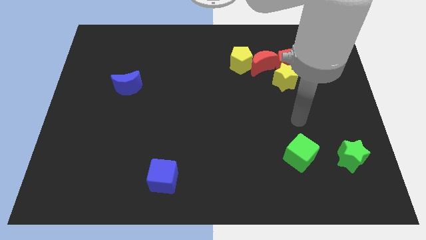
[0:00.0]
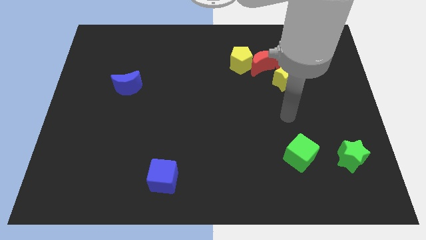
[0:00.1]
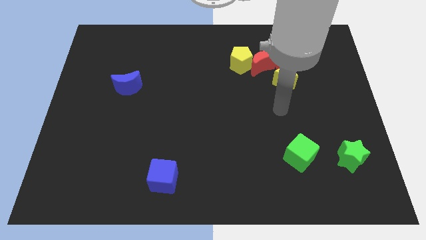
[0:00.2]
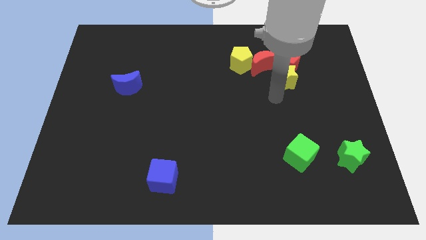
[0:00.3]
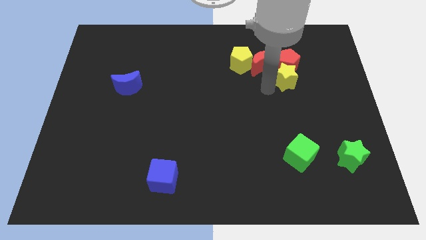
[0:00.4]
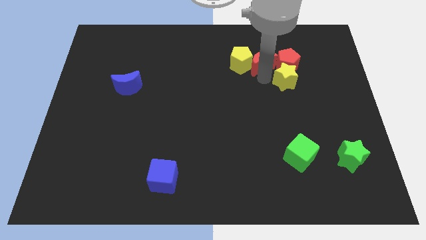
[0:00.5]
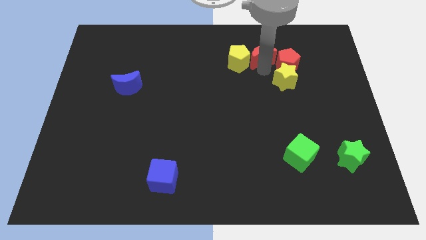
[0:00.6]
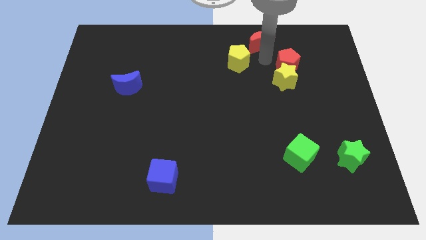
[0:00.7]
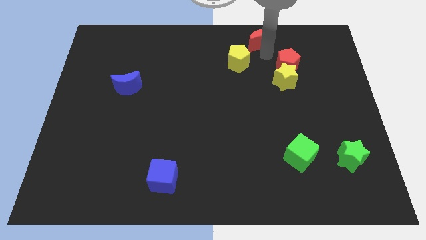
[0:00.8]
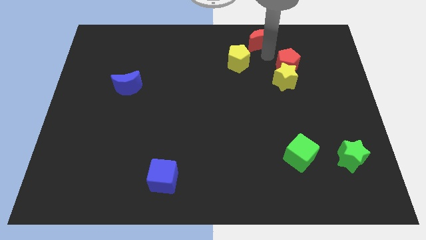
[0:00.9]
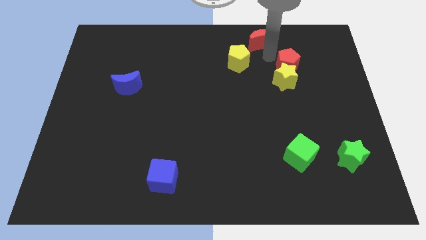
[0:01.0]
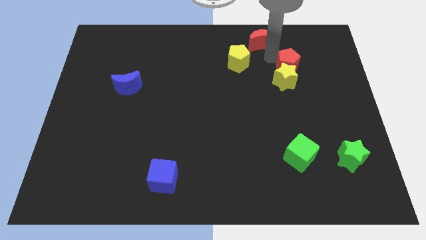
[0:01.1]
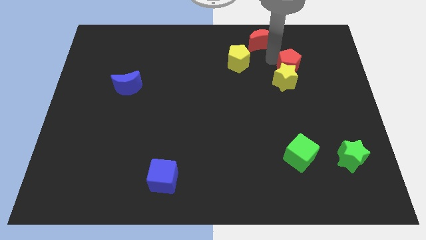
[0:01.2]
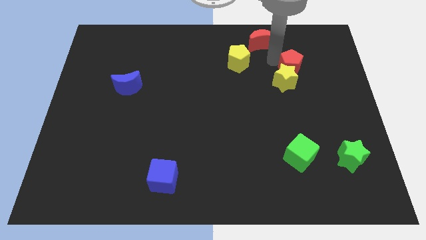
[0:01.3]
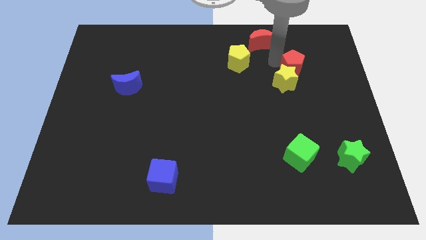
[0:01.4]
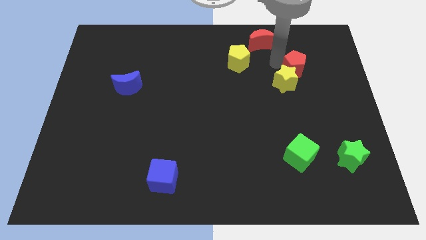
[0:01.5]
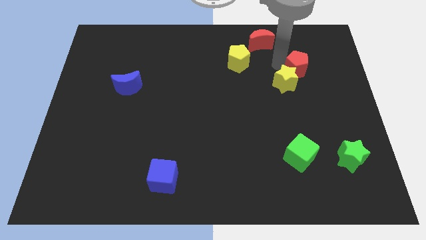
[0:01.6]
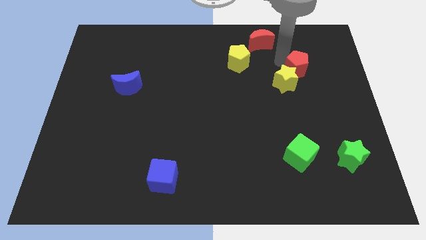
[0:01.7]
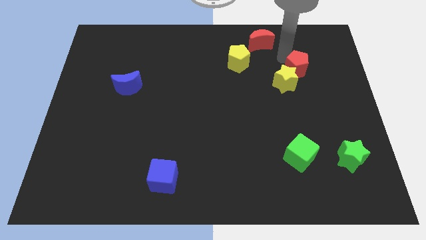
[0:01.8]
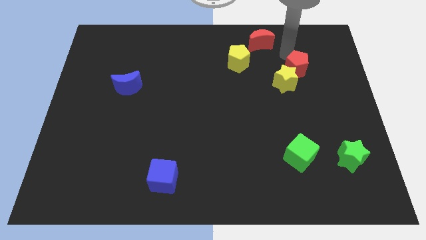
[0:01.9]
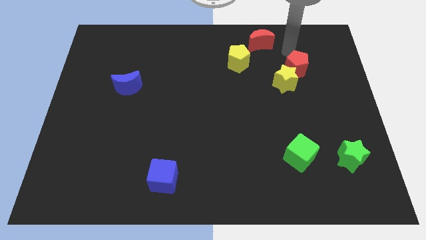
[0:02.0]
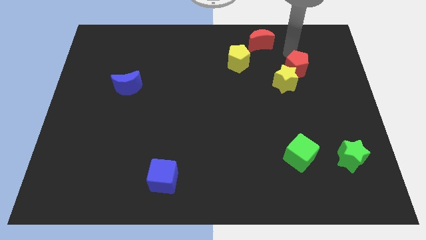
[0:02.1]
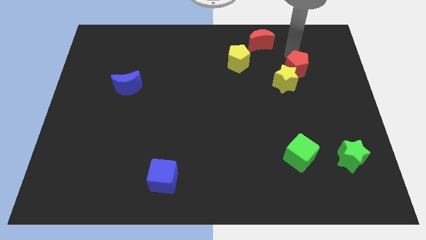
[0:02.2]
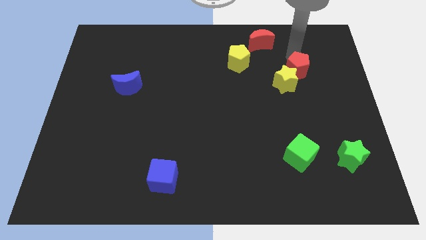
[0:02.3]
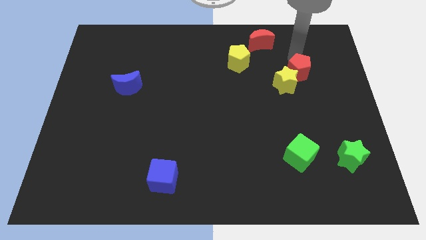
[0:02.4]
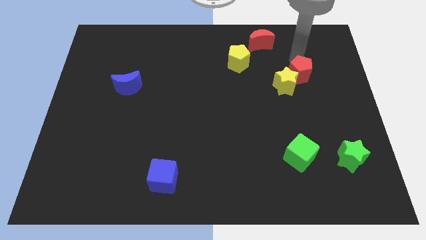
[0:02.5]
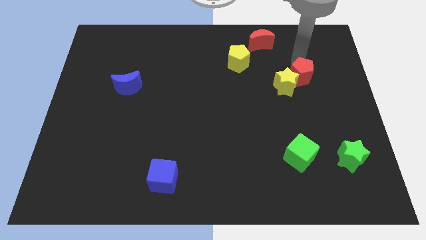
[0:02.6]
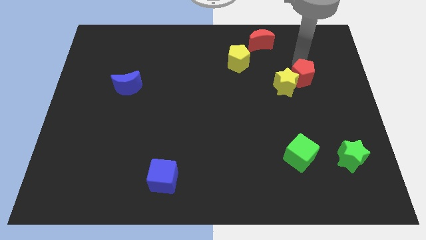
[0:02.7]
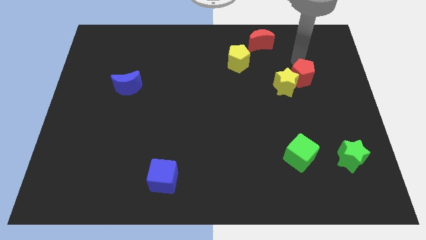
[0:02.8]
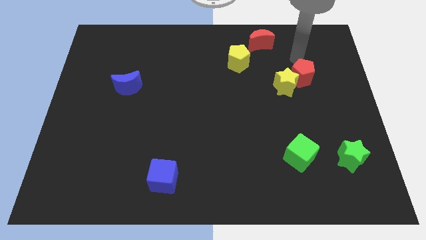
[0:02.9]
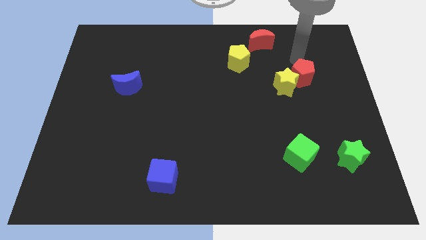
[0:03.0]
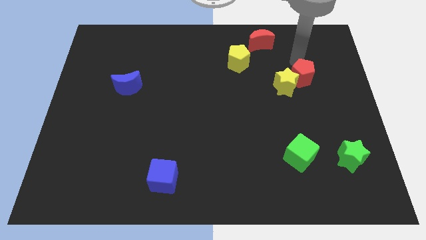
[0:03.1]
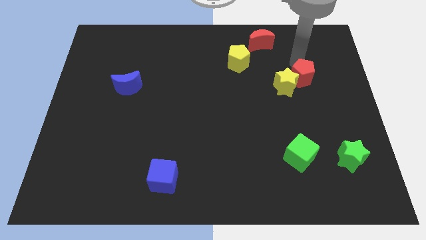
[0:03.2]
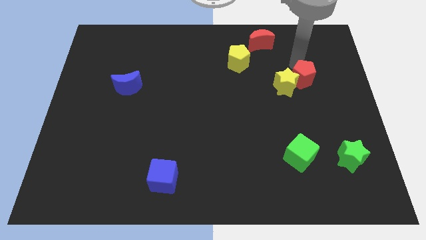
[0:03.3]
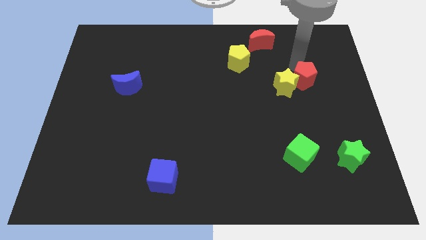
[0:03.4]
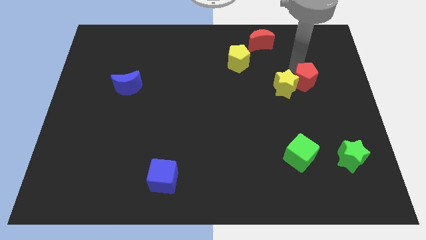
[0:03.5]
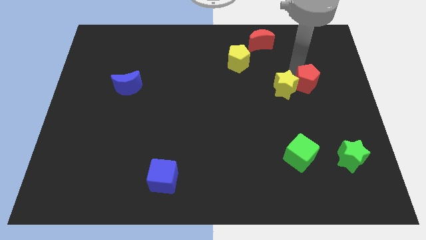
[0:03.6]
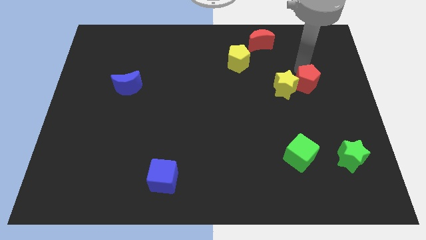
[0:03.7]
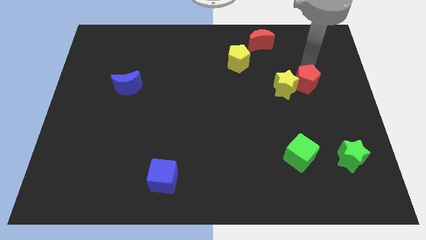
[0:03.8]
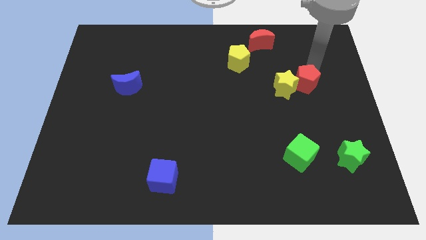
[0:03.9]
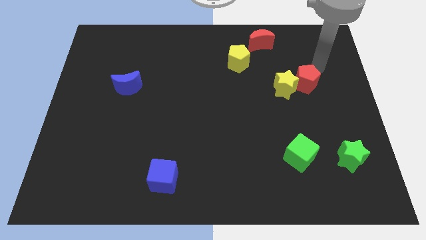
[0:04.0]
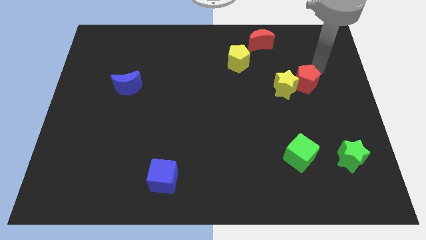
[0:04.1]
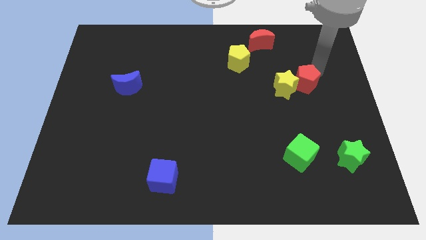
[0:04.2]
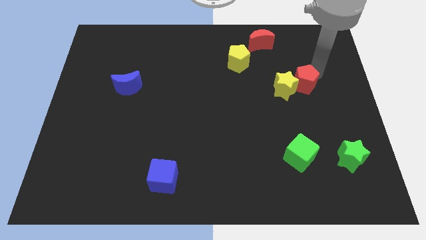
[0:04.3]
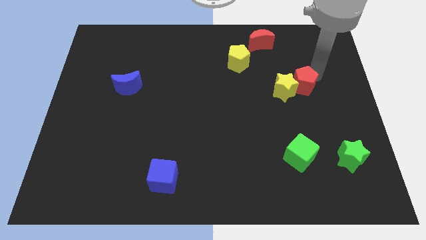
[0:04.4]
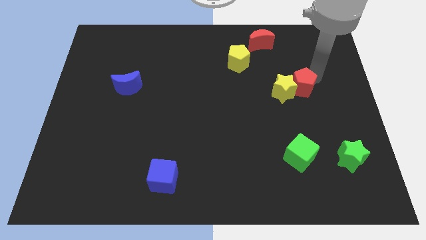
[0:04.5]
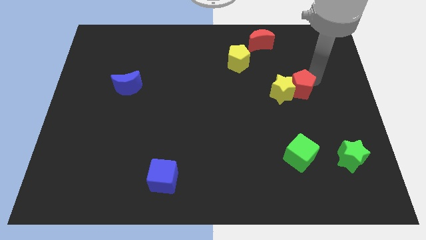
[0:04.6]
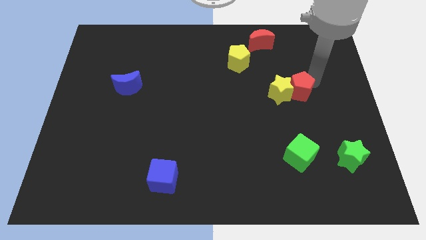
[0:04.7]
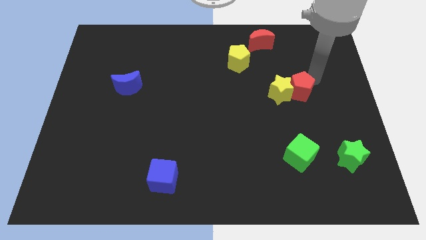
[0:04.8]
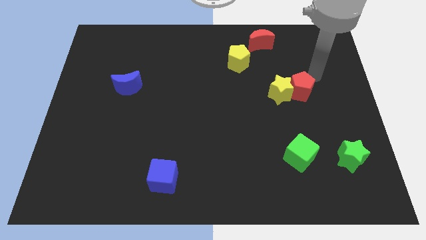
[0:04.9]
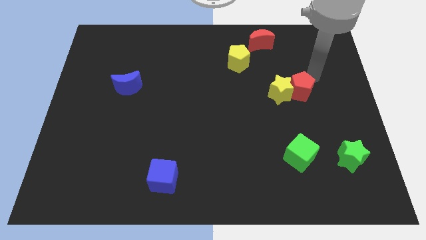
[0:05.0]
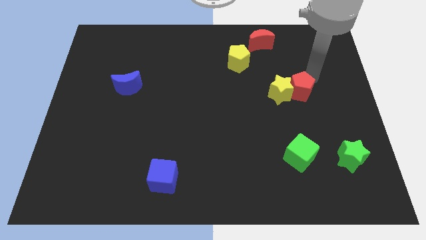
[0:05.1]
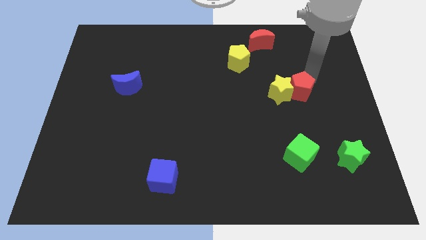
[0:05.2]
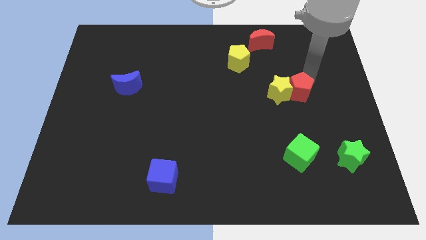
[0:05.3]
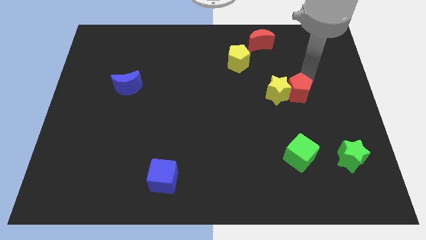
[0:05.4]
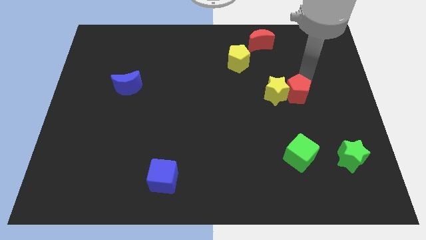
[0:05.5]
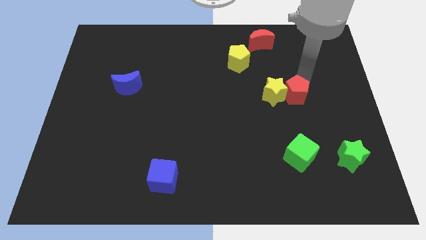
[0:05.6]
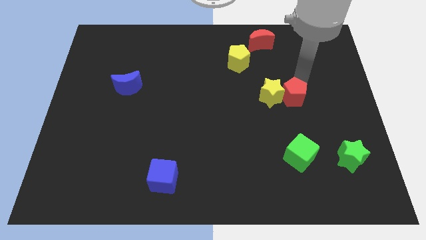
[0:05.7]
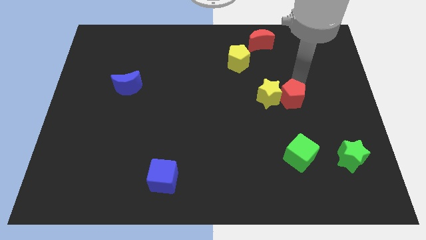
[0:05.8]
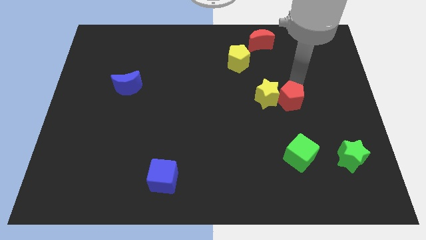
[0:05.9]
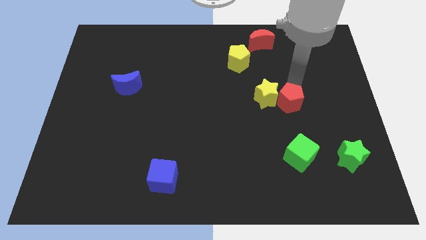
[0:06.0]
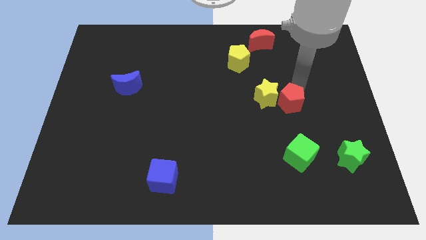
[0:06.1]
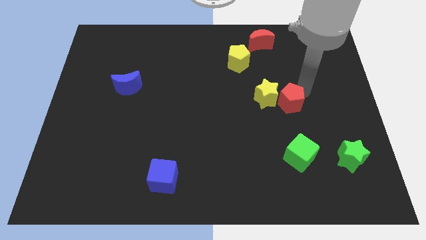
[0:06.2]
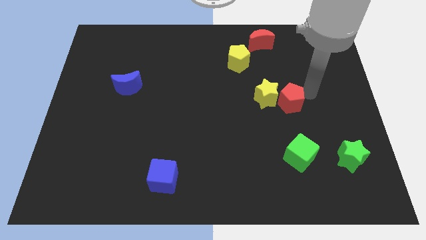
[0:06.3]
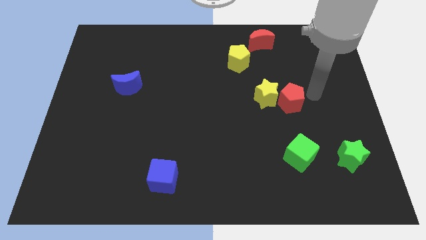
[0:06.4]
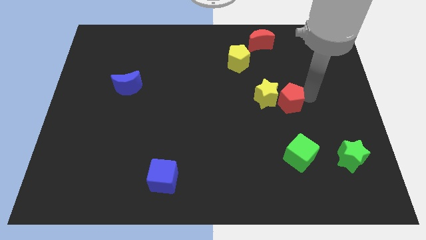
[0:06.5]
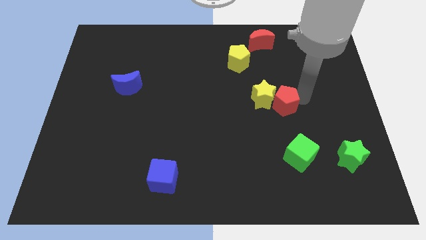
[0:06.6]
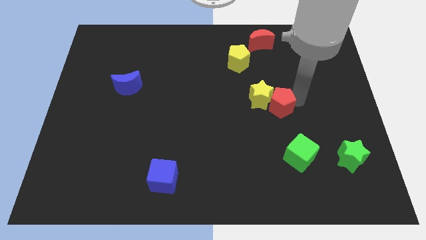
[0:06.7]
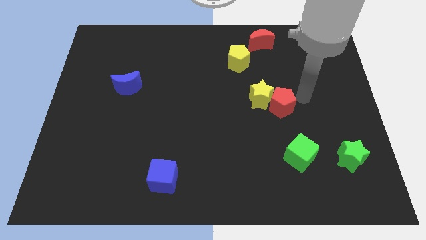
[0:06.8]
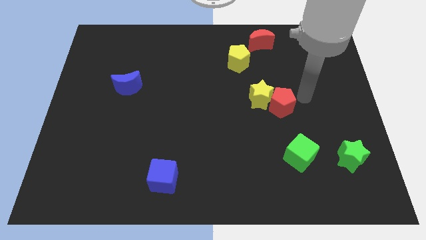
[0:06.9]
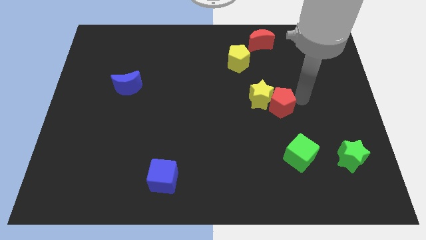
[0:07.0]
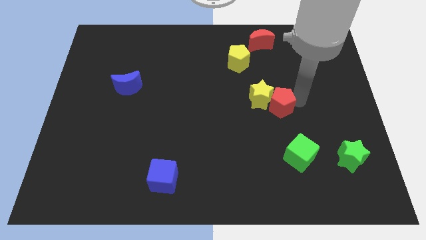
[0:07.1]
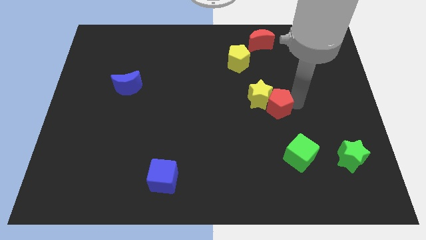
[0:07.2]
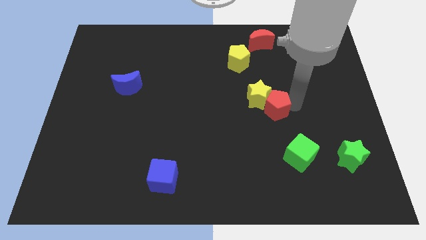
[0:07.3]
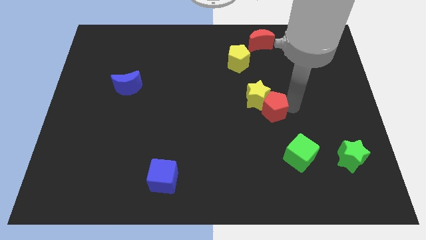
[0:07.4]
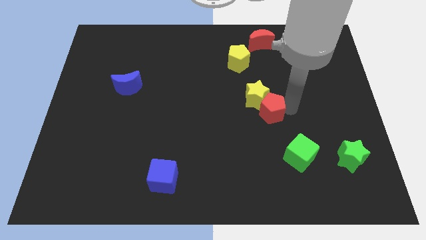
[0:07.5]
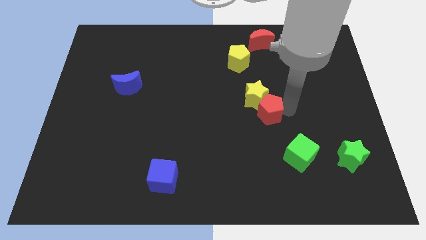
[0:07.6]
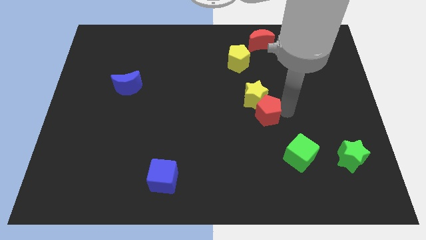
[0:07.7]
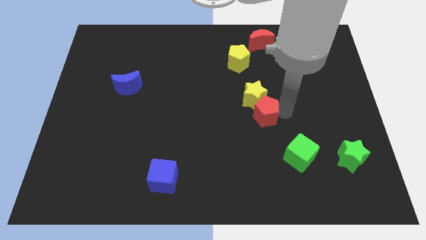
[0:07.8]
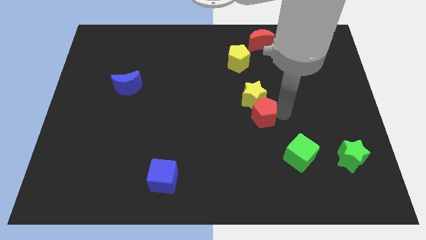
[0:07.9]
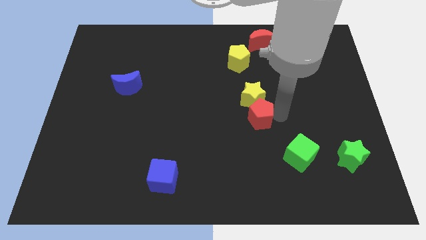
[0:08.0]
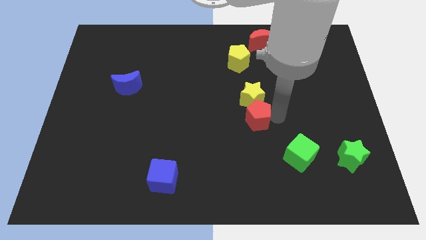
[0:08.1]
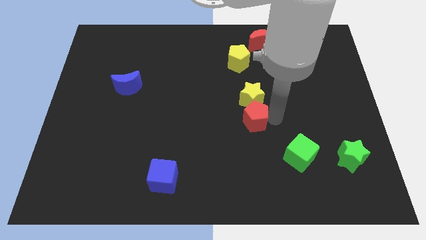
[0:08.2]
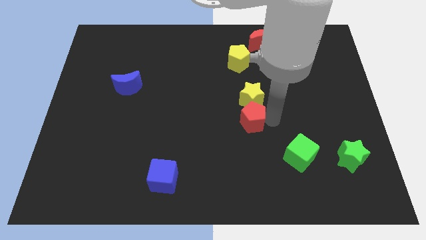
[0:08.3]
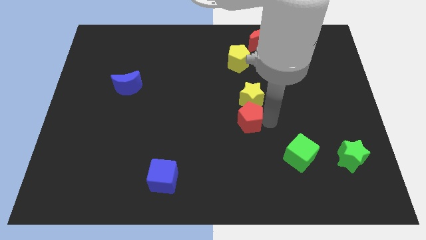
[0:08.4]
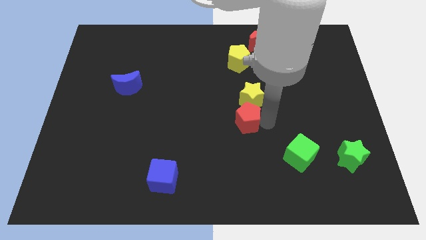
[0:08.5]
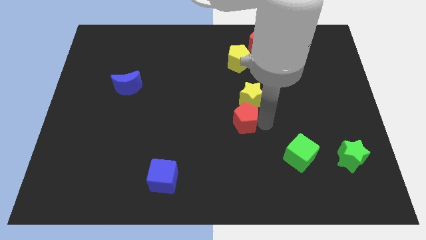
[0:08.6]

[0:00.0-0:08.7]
slide the red pentagon down and left
